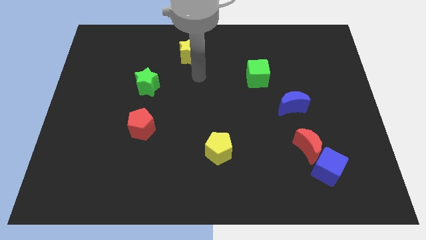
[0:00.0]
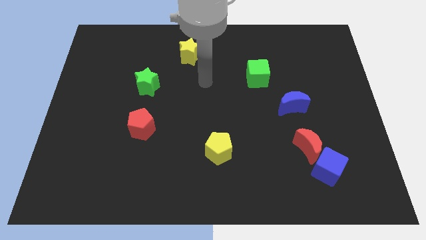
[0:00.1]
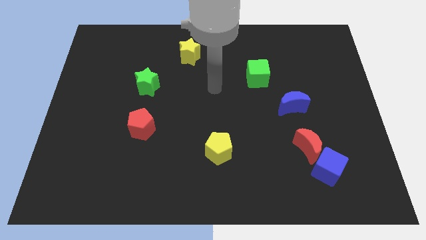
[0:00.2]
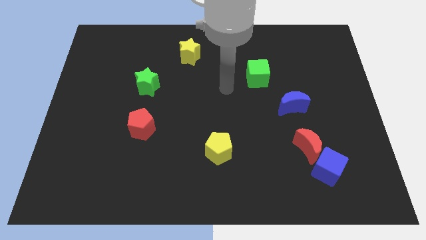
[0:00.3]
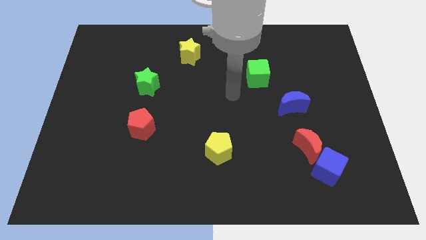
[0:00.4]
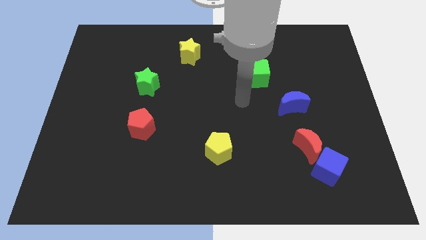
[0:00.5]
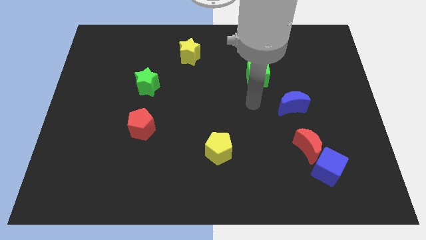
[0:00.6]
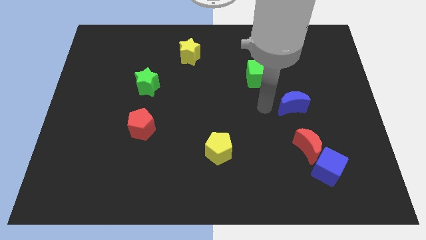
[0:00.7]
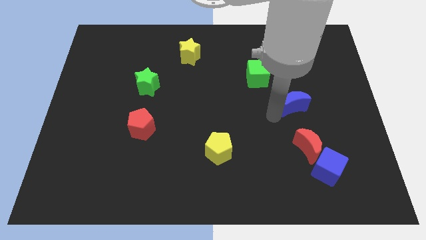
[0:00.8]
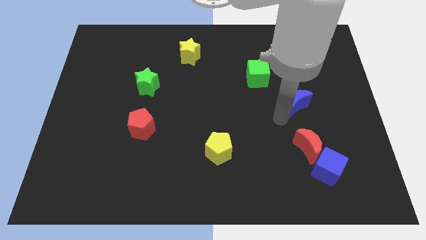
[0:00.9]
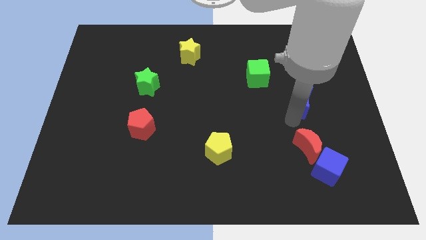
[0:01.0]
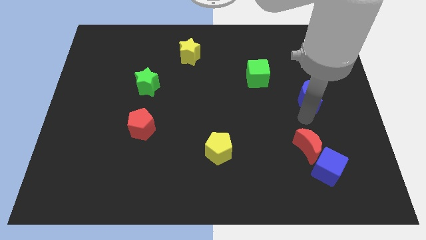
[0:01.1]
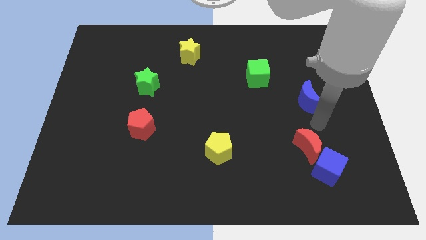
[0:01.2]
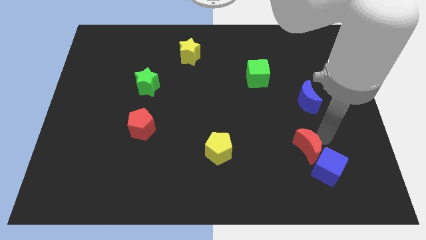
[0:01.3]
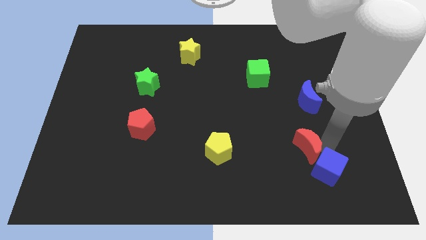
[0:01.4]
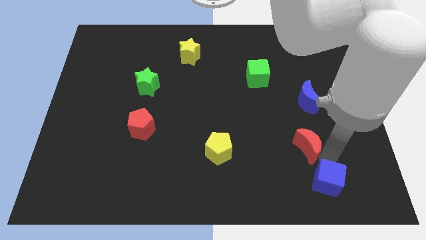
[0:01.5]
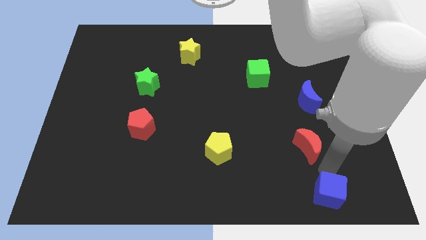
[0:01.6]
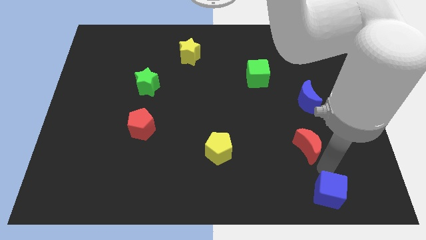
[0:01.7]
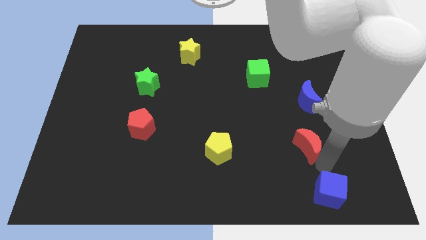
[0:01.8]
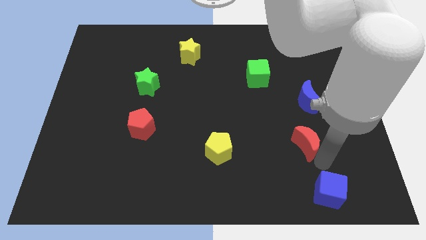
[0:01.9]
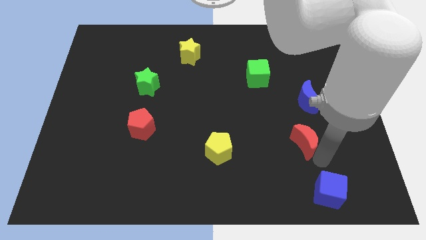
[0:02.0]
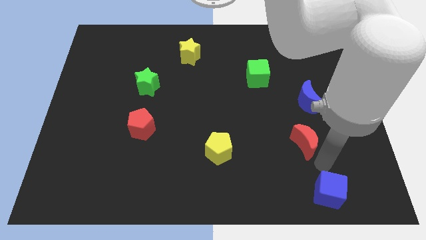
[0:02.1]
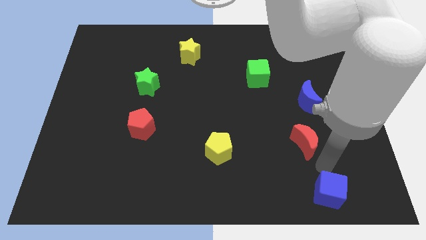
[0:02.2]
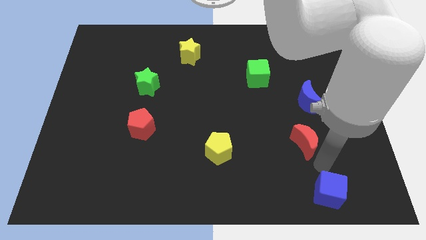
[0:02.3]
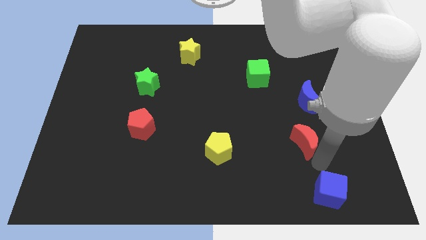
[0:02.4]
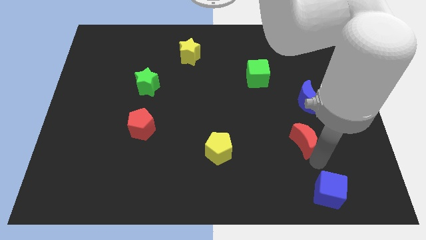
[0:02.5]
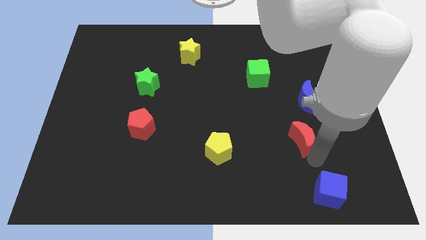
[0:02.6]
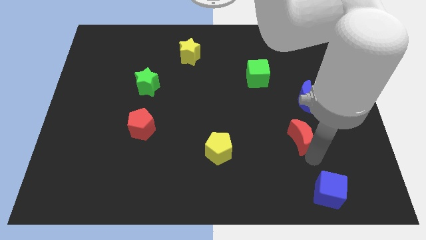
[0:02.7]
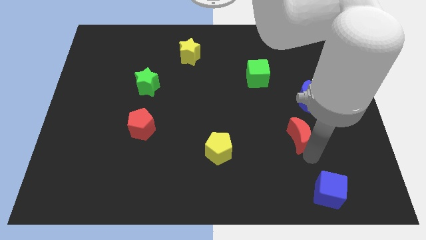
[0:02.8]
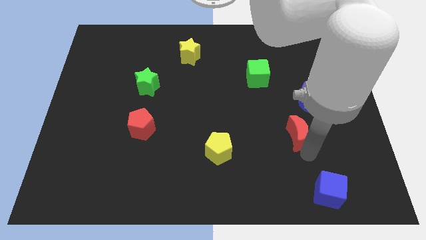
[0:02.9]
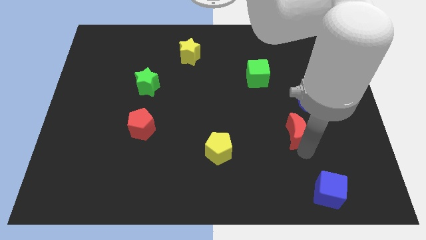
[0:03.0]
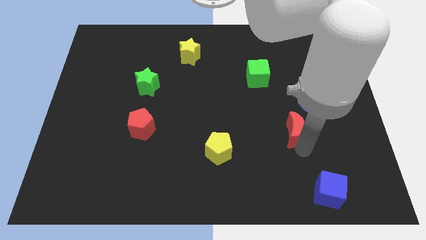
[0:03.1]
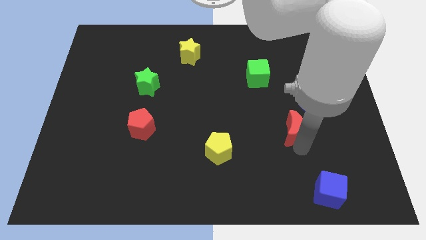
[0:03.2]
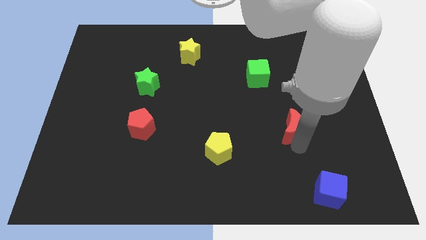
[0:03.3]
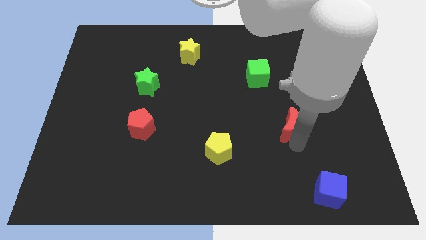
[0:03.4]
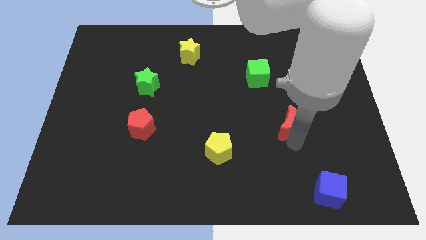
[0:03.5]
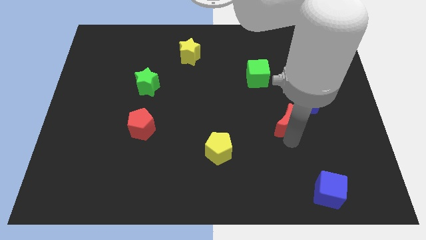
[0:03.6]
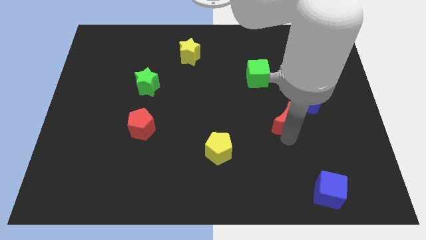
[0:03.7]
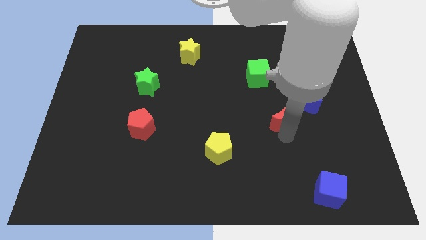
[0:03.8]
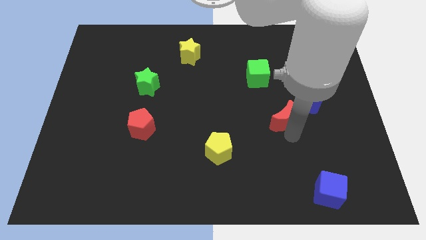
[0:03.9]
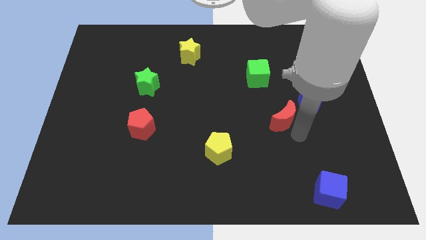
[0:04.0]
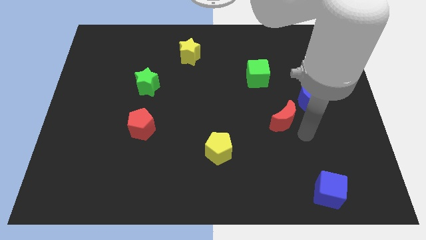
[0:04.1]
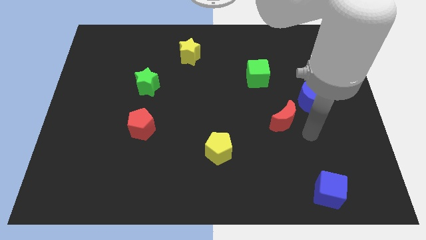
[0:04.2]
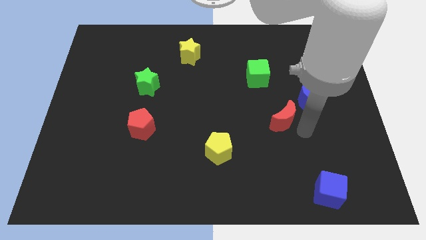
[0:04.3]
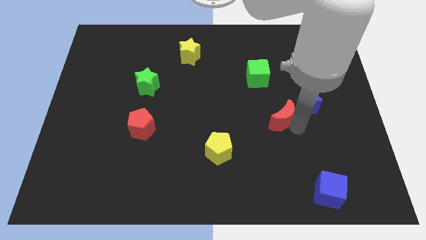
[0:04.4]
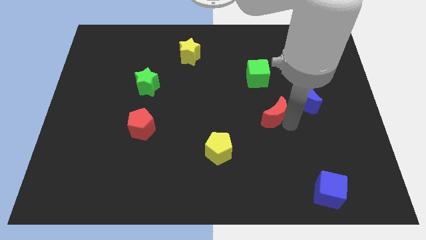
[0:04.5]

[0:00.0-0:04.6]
move the red moon below the green cube

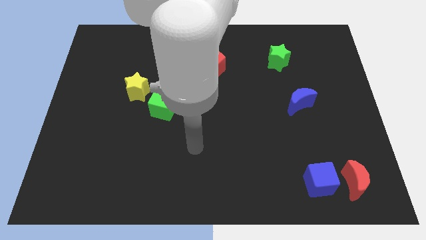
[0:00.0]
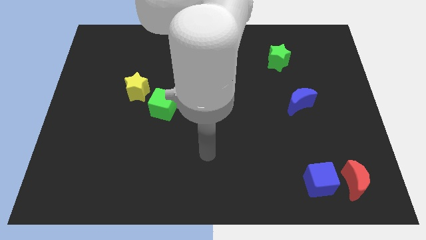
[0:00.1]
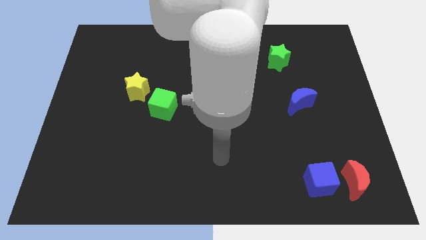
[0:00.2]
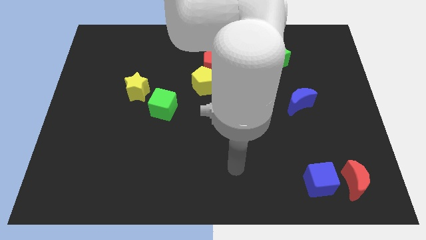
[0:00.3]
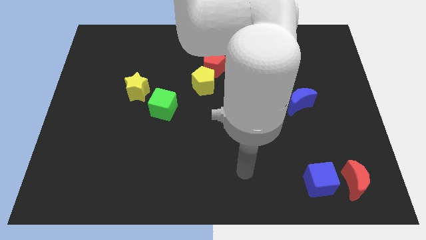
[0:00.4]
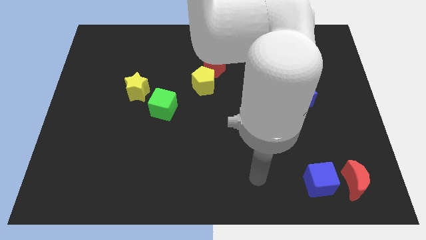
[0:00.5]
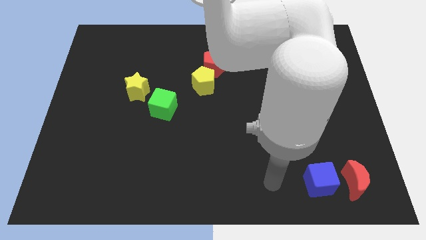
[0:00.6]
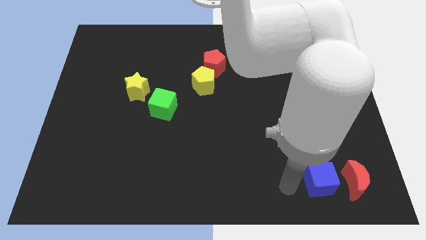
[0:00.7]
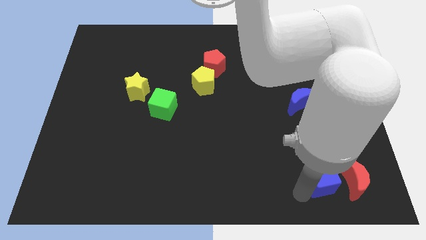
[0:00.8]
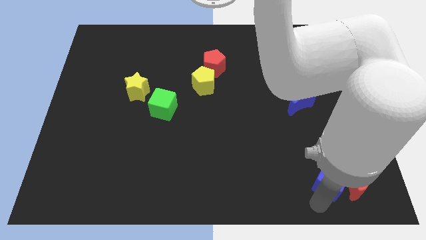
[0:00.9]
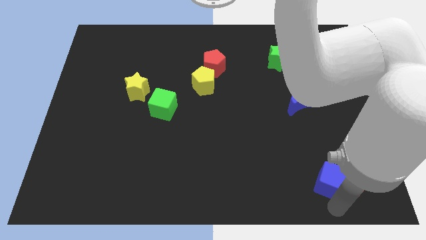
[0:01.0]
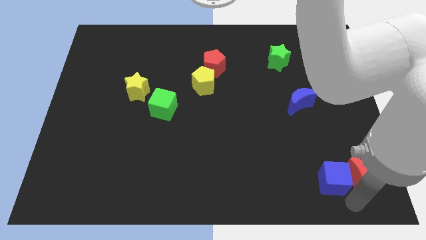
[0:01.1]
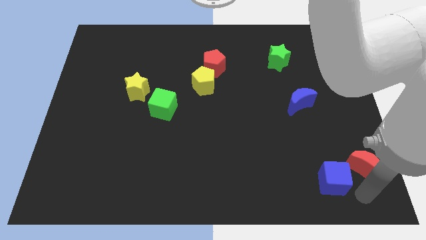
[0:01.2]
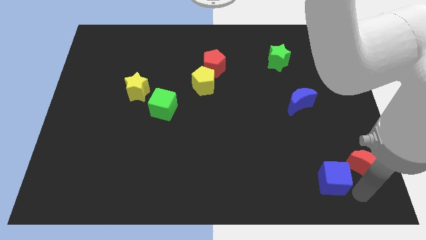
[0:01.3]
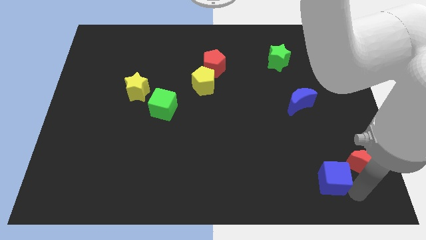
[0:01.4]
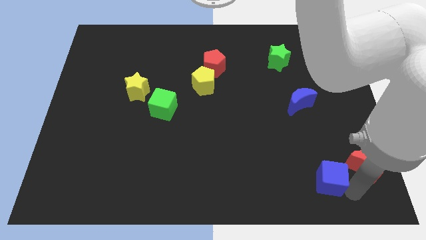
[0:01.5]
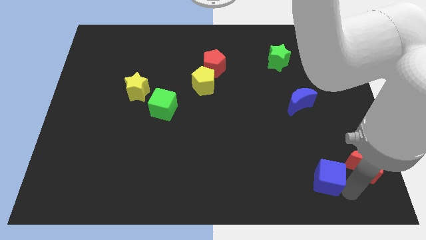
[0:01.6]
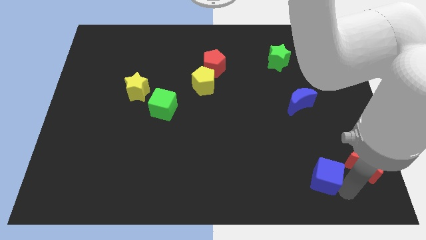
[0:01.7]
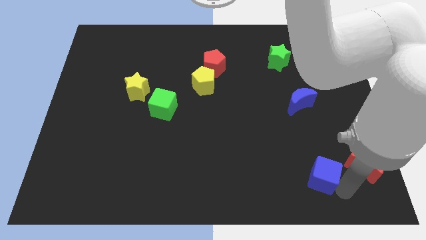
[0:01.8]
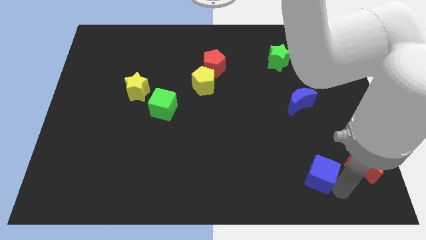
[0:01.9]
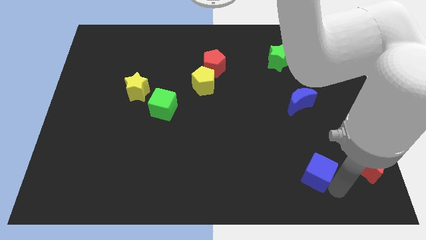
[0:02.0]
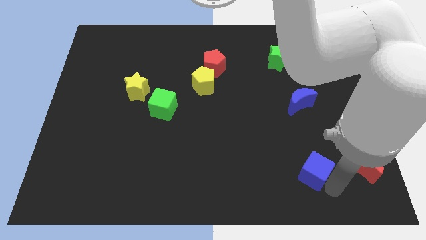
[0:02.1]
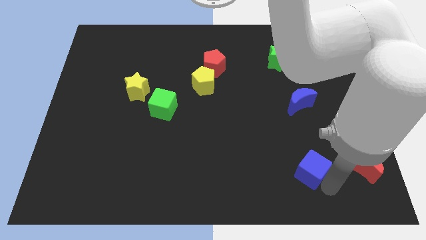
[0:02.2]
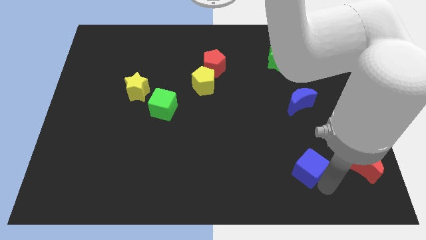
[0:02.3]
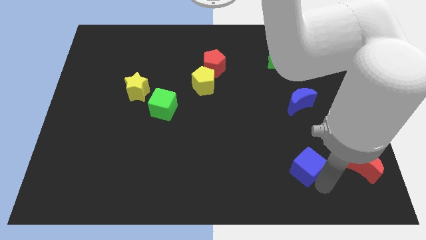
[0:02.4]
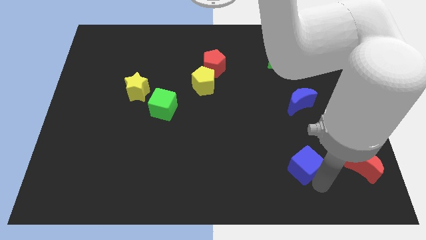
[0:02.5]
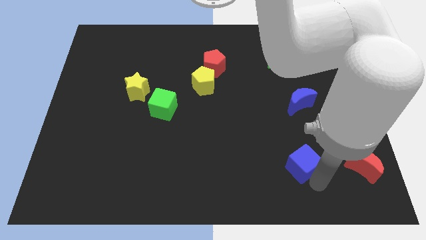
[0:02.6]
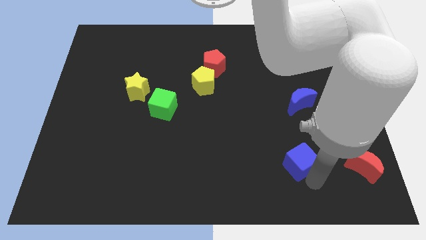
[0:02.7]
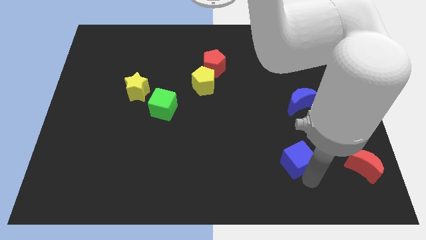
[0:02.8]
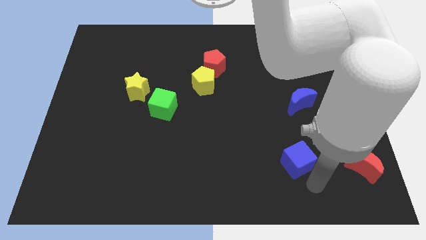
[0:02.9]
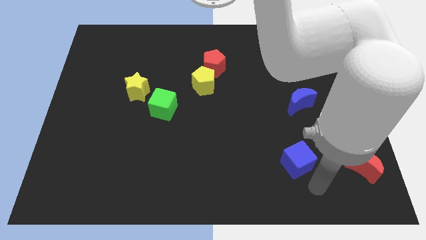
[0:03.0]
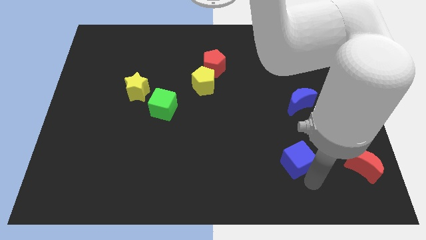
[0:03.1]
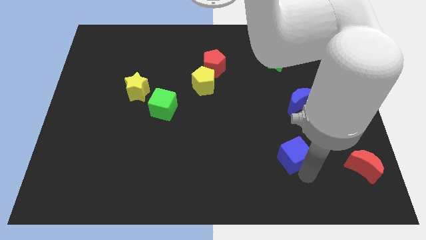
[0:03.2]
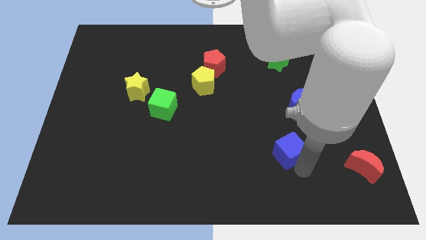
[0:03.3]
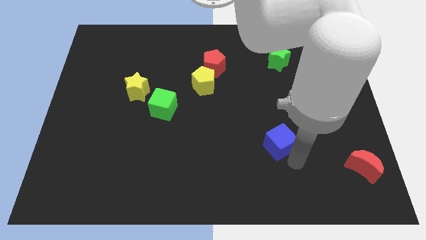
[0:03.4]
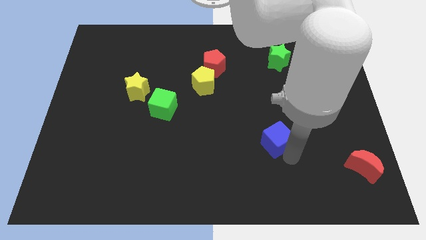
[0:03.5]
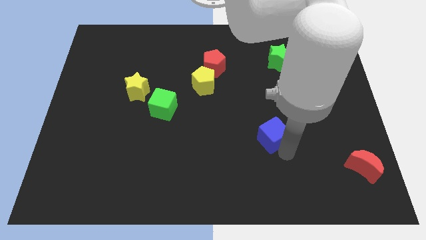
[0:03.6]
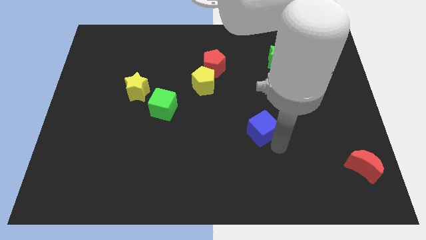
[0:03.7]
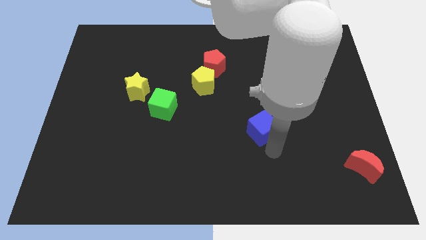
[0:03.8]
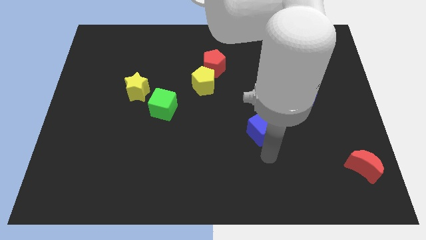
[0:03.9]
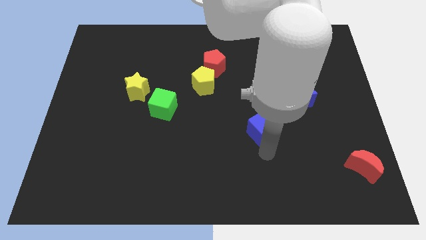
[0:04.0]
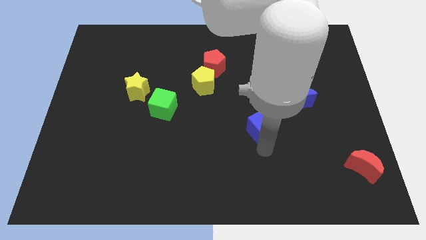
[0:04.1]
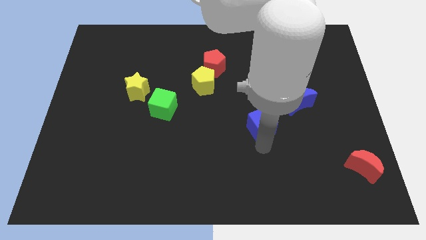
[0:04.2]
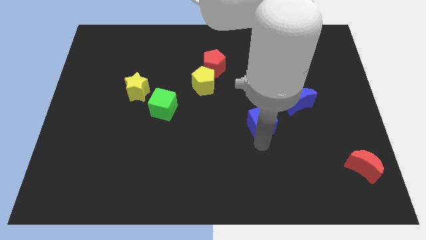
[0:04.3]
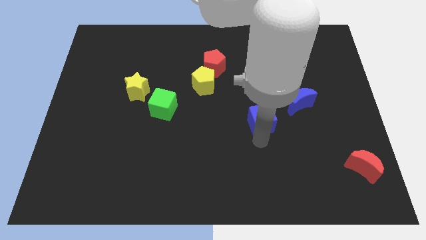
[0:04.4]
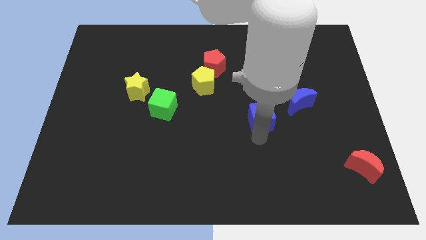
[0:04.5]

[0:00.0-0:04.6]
put the blue cube to the left side of the blue moon
